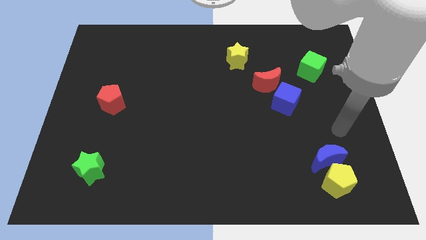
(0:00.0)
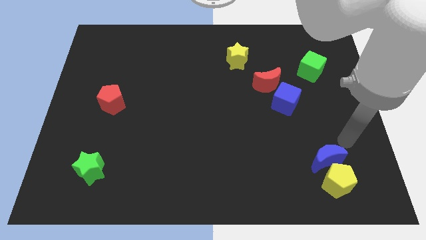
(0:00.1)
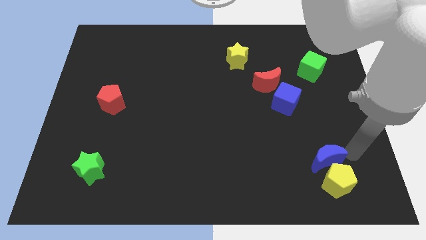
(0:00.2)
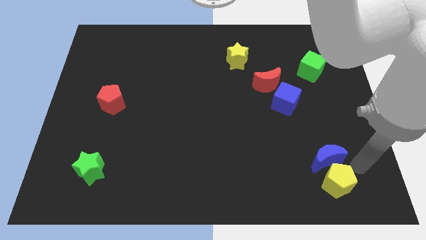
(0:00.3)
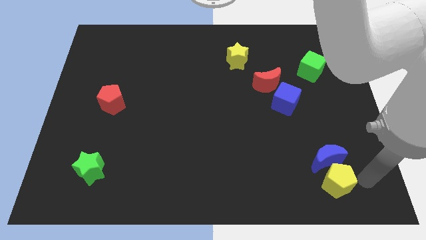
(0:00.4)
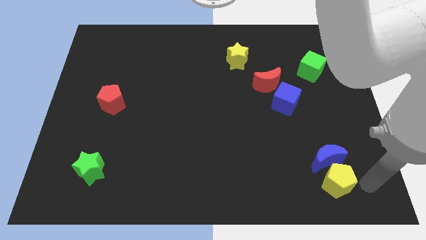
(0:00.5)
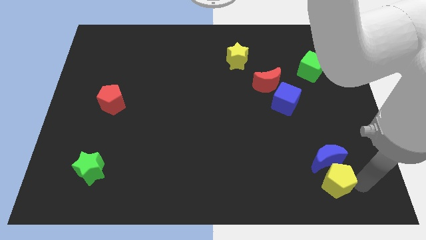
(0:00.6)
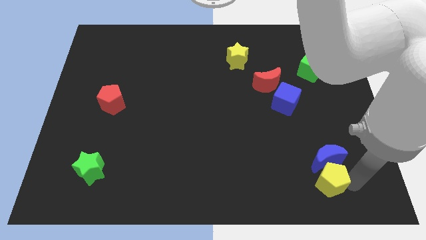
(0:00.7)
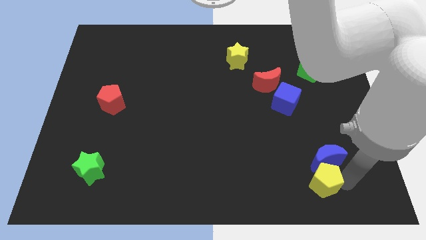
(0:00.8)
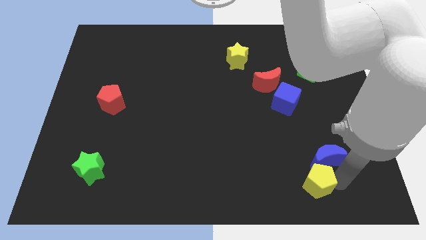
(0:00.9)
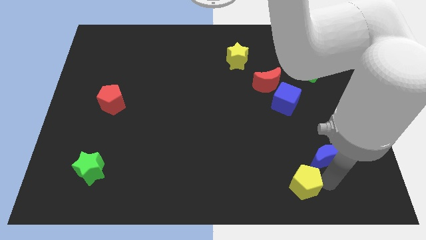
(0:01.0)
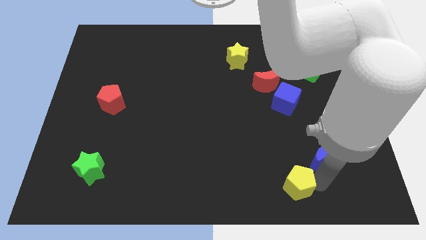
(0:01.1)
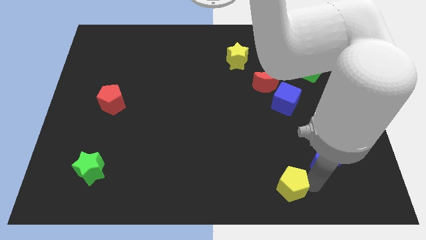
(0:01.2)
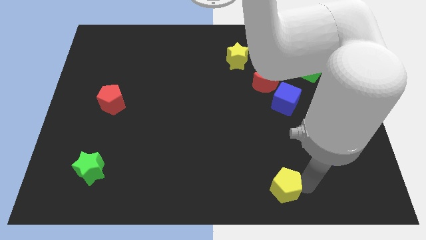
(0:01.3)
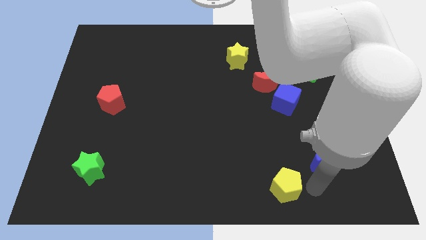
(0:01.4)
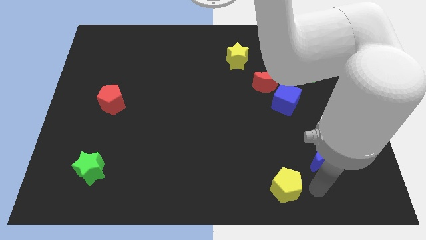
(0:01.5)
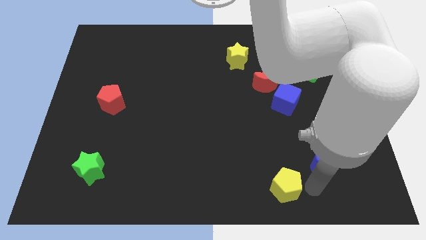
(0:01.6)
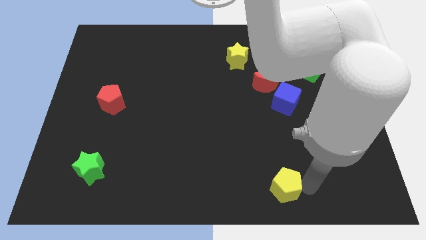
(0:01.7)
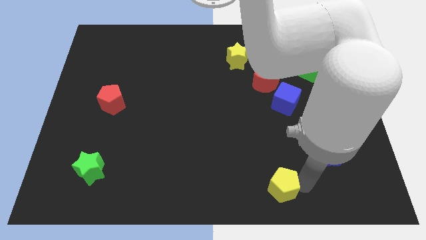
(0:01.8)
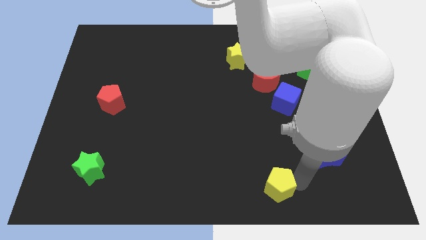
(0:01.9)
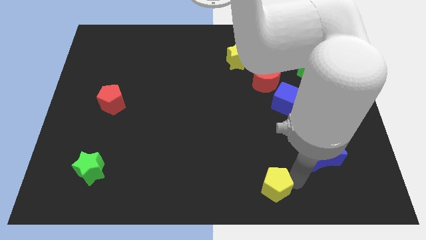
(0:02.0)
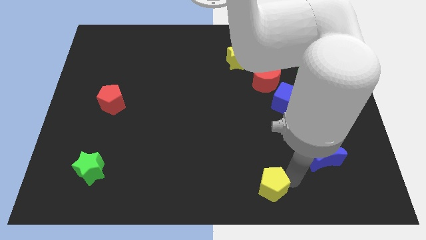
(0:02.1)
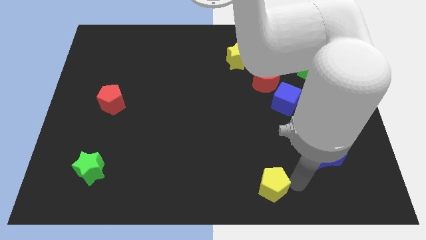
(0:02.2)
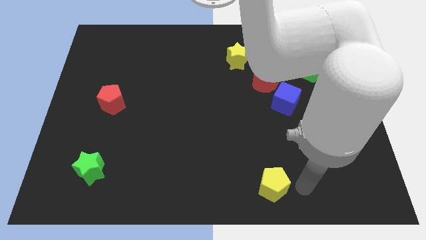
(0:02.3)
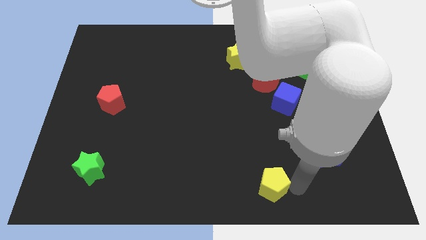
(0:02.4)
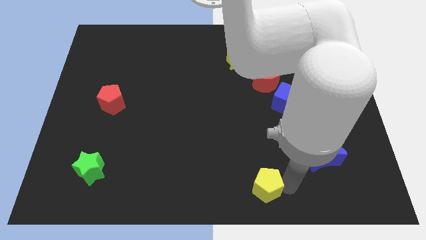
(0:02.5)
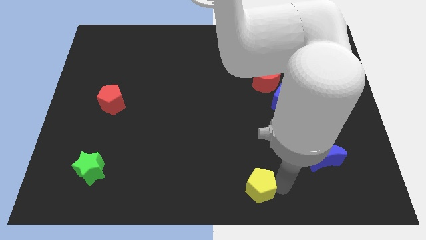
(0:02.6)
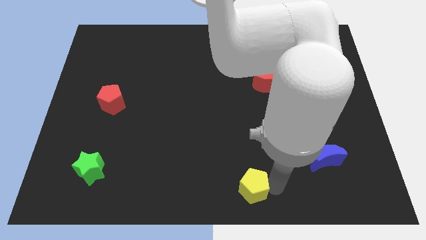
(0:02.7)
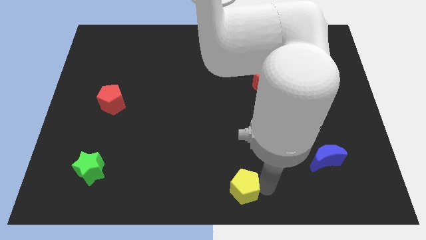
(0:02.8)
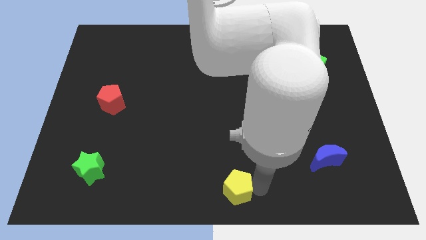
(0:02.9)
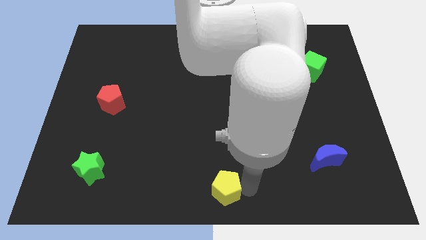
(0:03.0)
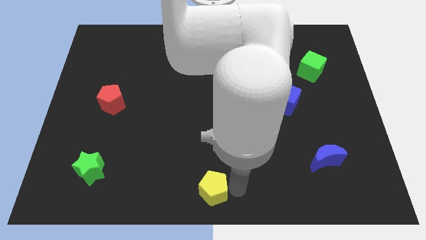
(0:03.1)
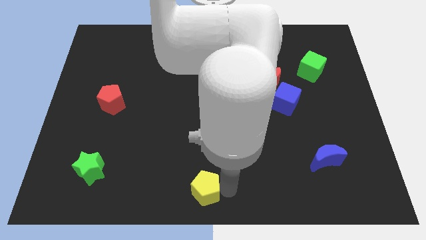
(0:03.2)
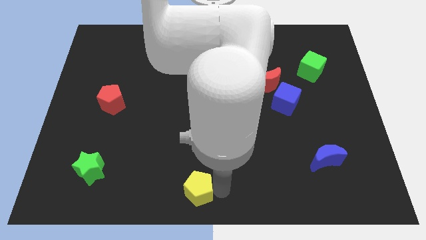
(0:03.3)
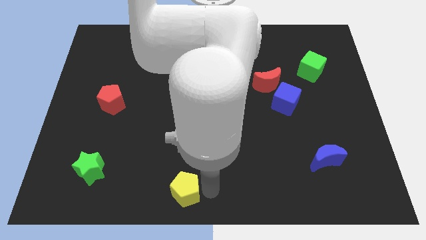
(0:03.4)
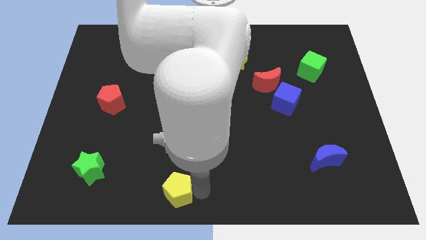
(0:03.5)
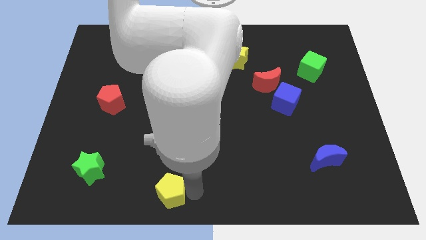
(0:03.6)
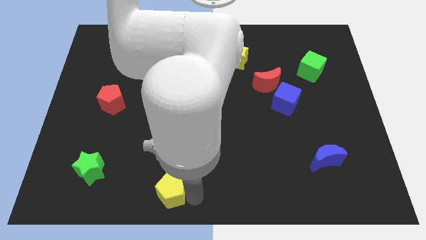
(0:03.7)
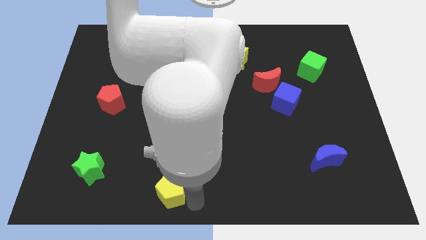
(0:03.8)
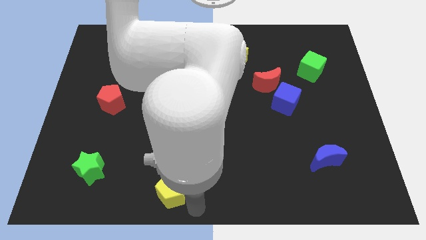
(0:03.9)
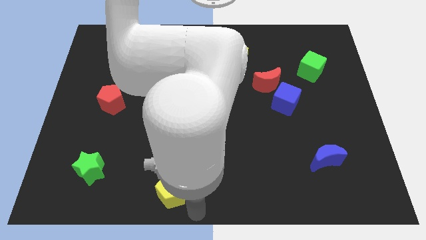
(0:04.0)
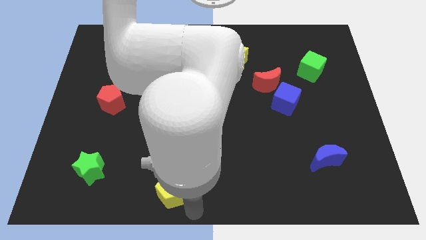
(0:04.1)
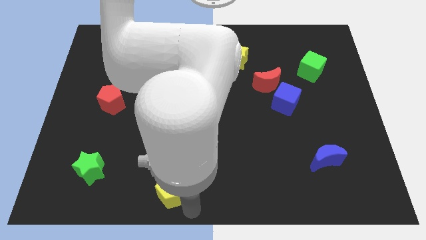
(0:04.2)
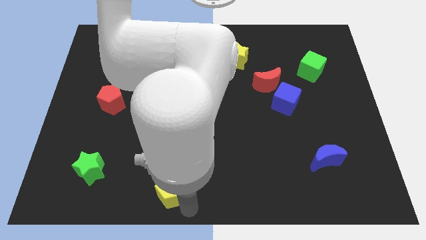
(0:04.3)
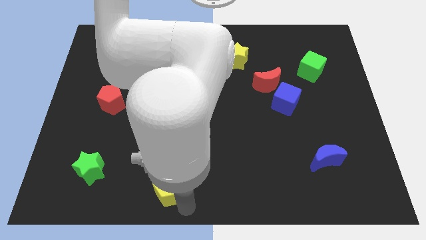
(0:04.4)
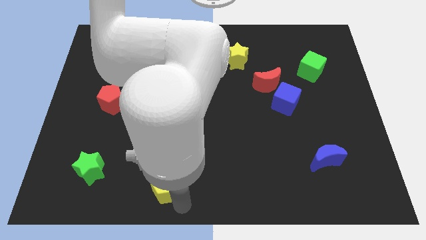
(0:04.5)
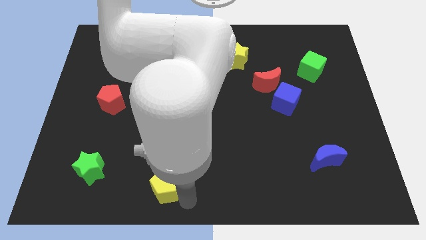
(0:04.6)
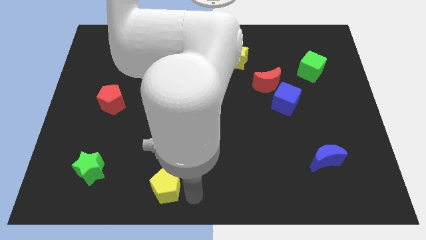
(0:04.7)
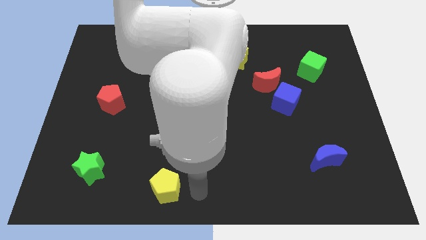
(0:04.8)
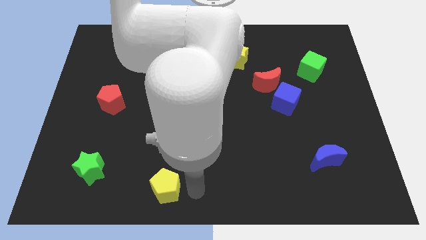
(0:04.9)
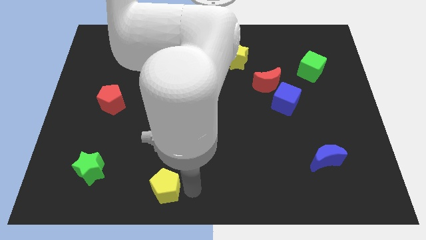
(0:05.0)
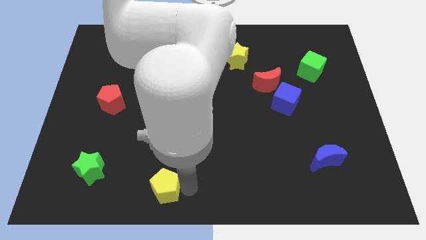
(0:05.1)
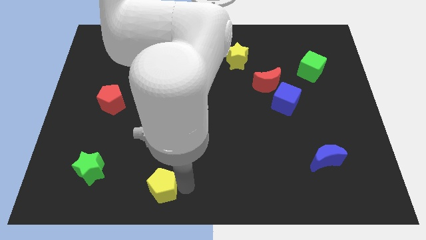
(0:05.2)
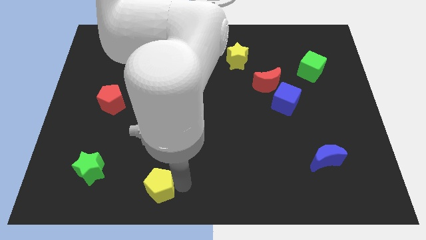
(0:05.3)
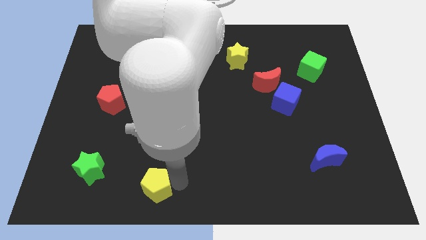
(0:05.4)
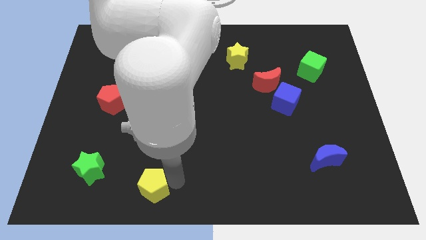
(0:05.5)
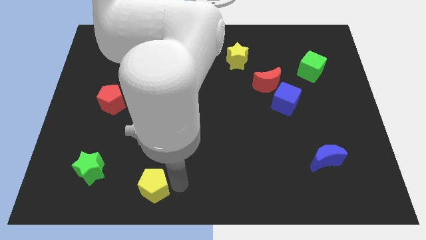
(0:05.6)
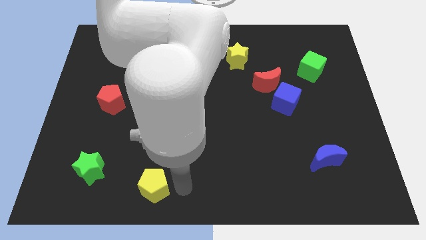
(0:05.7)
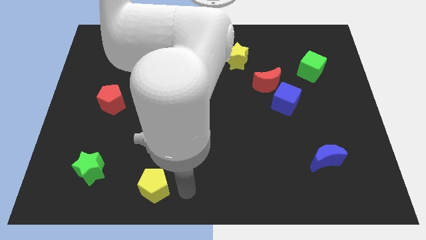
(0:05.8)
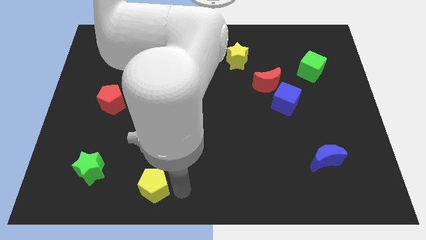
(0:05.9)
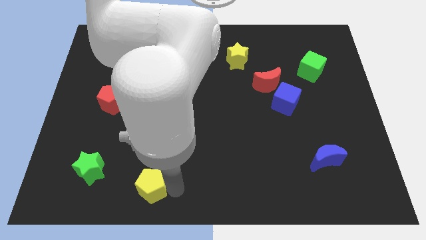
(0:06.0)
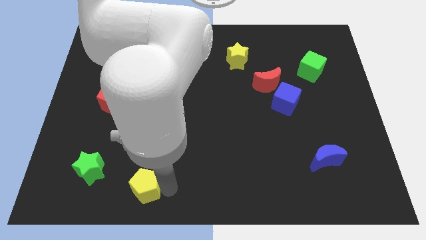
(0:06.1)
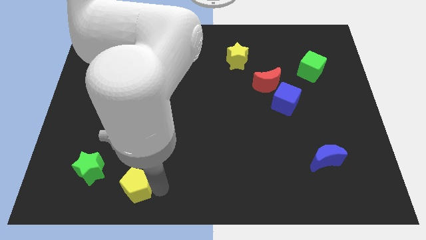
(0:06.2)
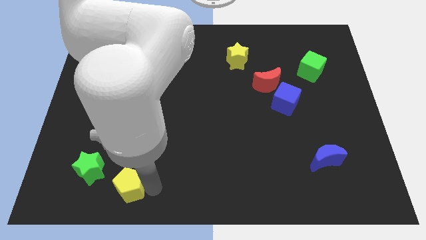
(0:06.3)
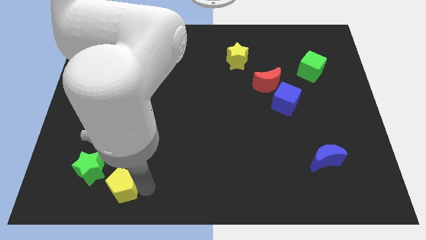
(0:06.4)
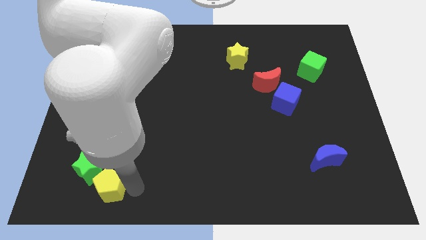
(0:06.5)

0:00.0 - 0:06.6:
move the yellow pentagon towards the green star
